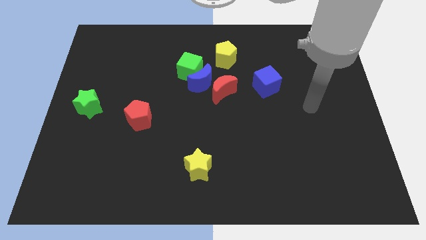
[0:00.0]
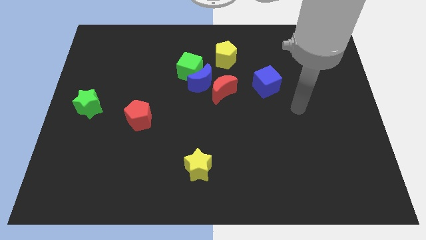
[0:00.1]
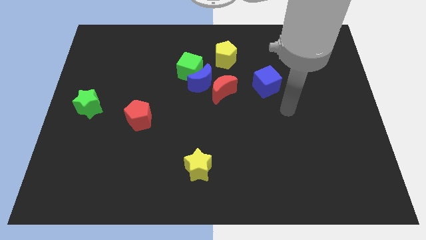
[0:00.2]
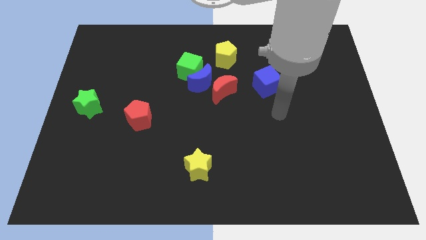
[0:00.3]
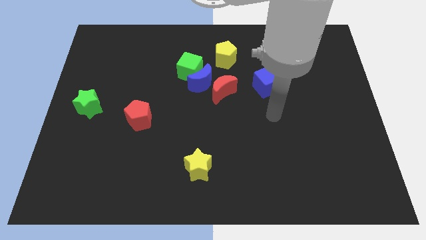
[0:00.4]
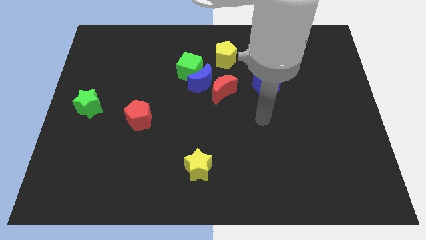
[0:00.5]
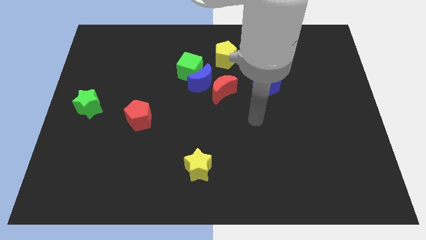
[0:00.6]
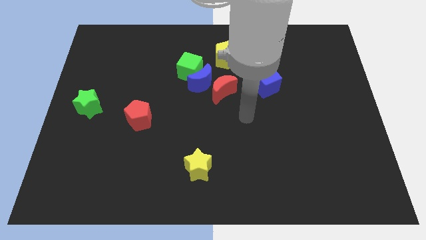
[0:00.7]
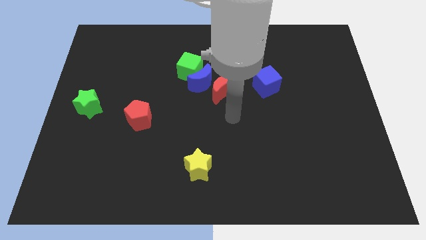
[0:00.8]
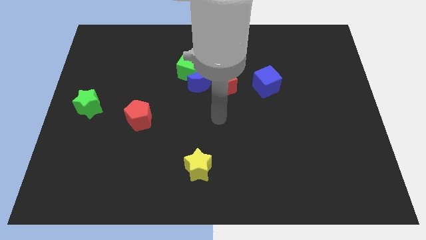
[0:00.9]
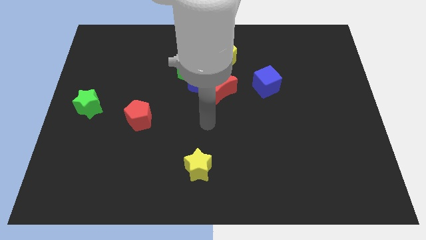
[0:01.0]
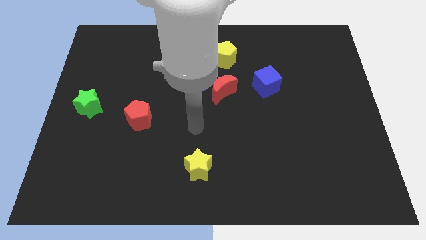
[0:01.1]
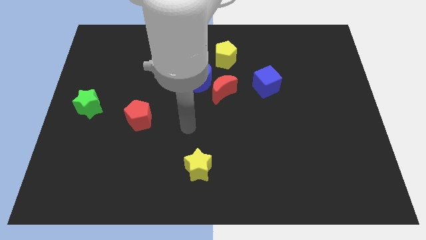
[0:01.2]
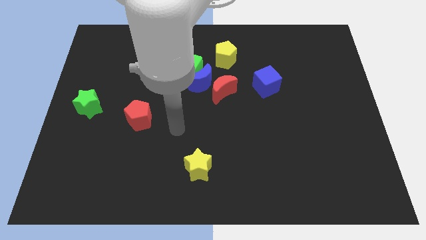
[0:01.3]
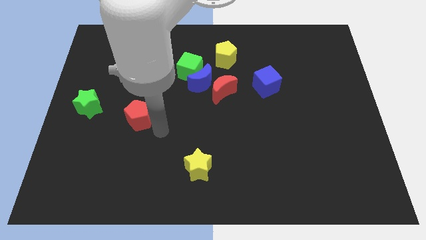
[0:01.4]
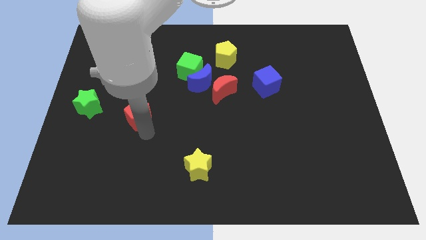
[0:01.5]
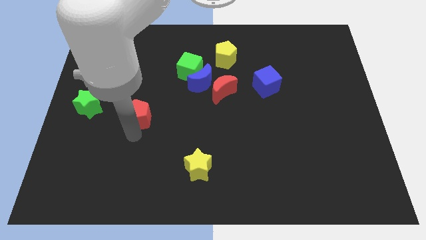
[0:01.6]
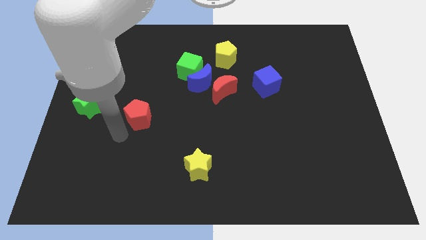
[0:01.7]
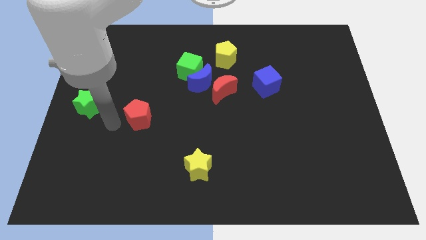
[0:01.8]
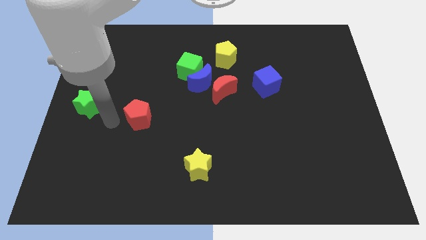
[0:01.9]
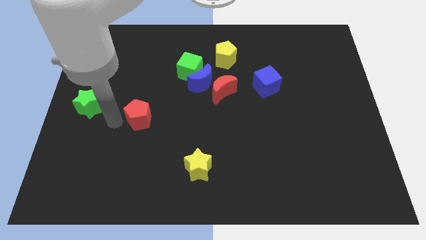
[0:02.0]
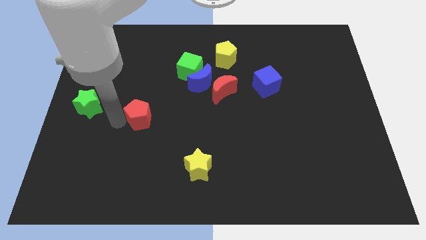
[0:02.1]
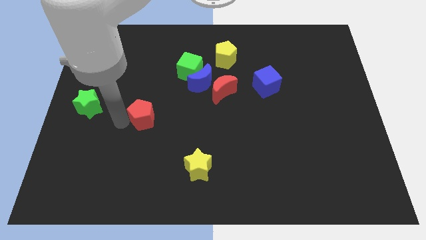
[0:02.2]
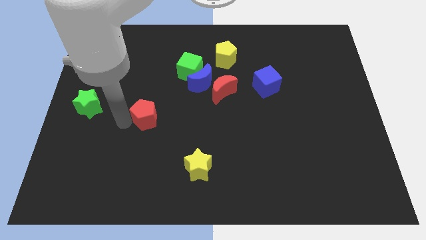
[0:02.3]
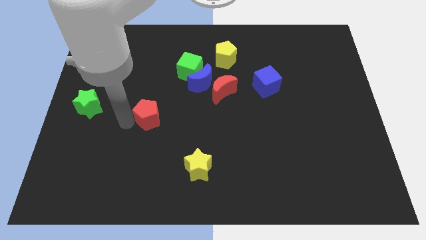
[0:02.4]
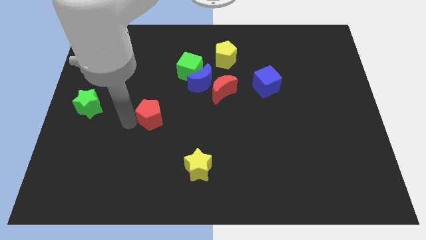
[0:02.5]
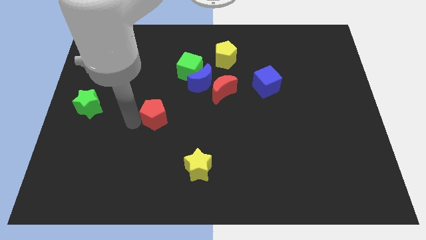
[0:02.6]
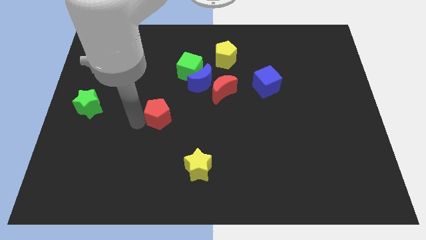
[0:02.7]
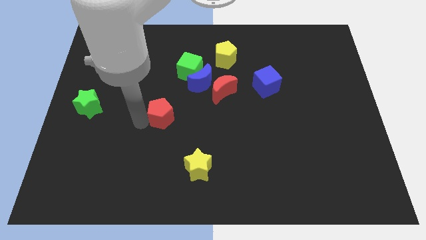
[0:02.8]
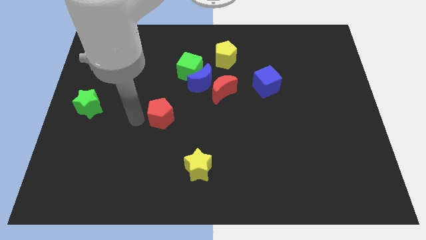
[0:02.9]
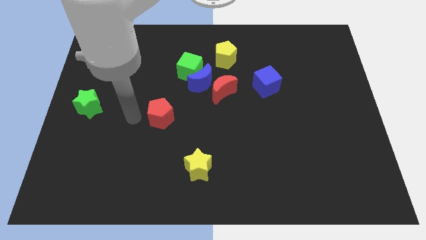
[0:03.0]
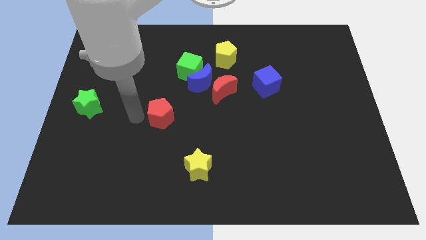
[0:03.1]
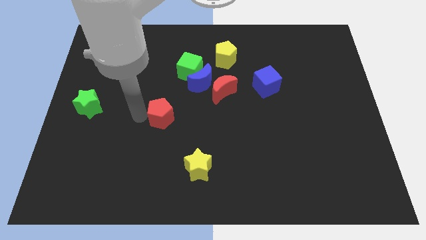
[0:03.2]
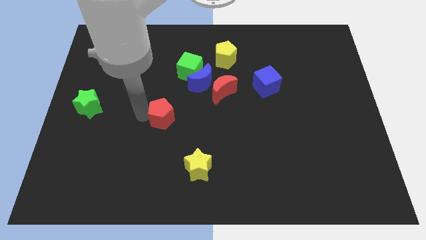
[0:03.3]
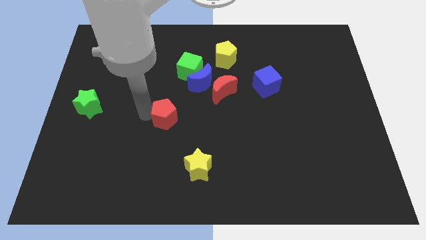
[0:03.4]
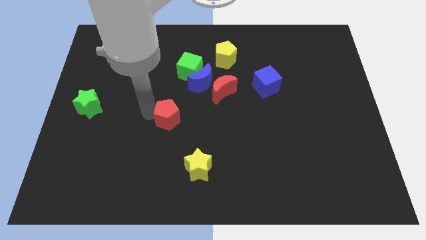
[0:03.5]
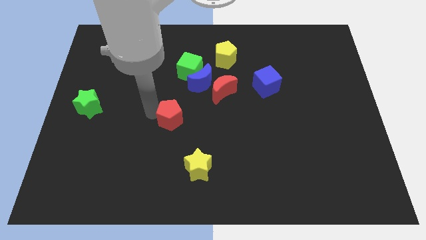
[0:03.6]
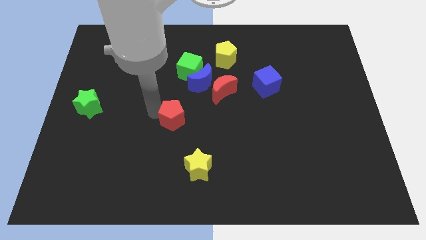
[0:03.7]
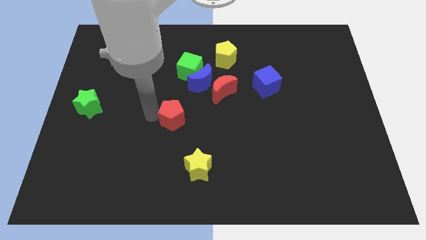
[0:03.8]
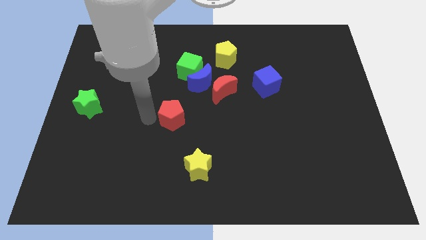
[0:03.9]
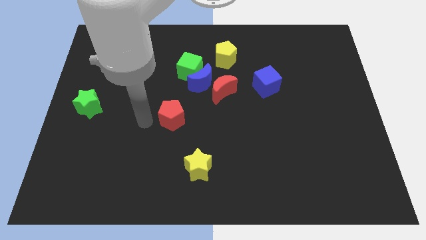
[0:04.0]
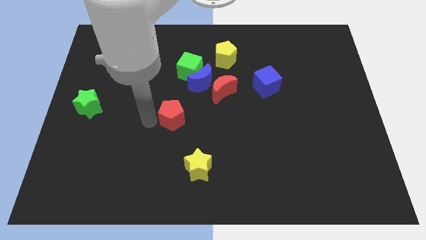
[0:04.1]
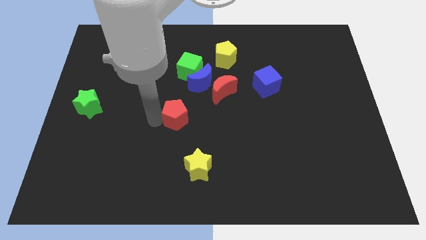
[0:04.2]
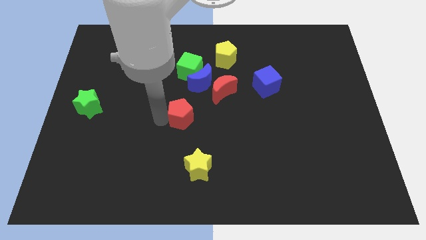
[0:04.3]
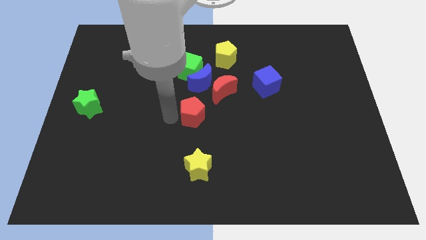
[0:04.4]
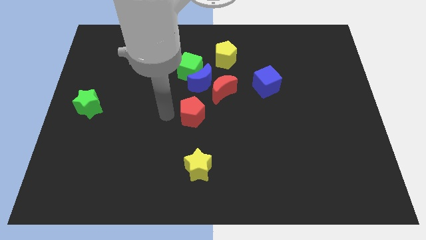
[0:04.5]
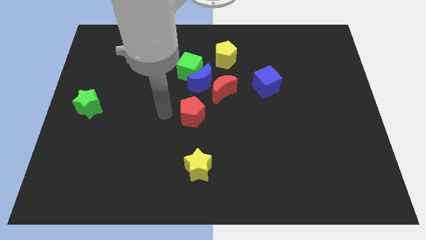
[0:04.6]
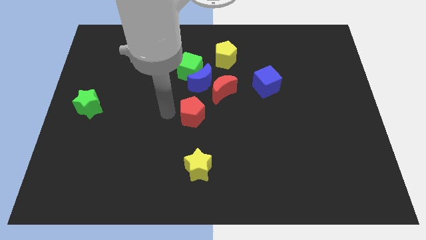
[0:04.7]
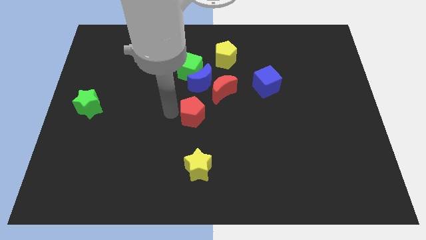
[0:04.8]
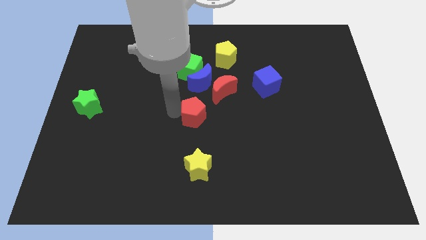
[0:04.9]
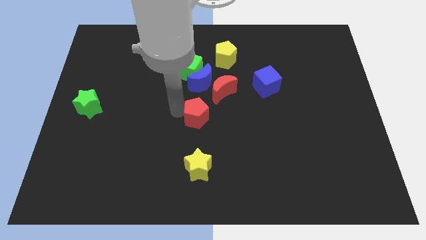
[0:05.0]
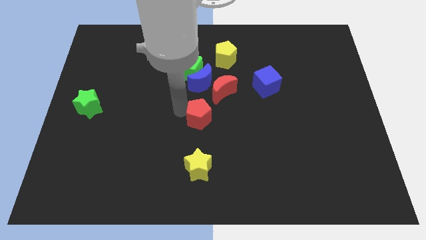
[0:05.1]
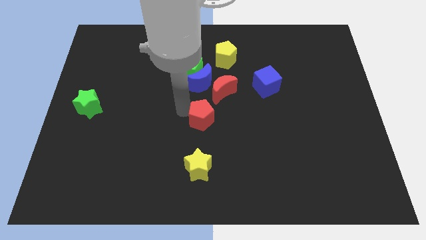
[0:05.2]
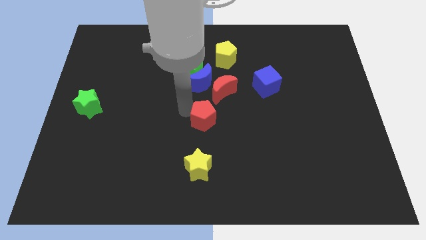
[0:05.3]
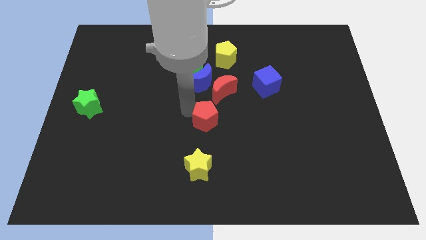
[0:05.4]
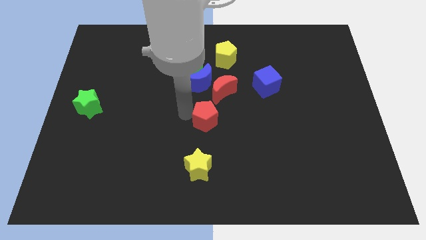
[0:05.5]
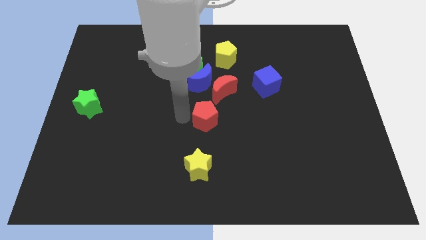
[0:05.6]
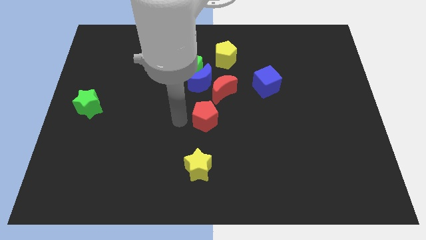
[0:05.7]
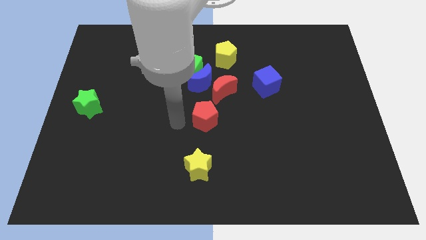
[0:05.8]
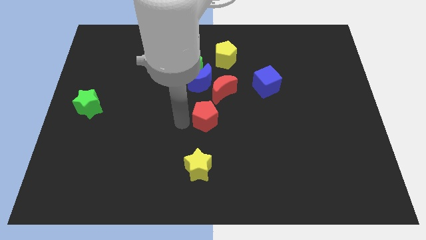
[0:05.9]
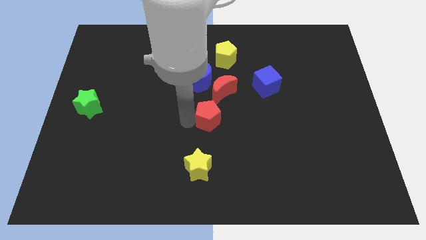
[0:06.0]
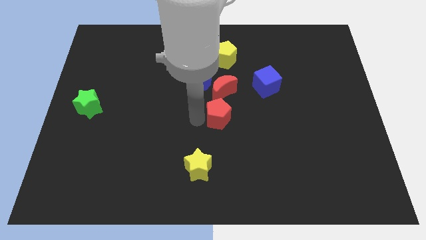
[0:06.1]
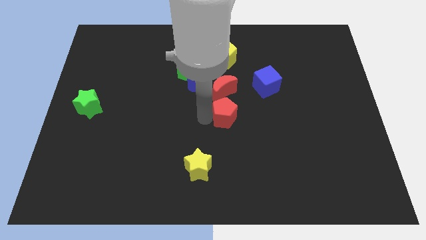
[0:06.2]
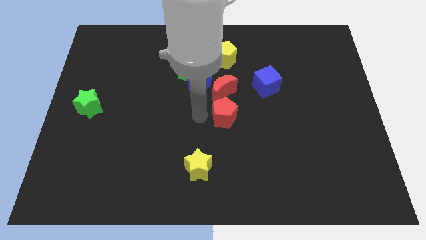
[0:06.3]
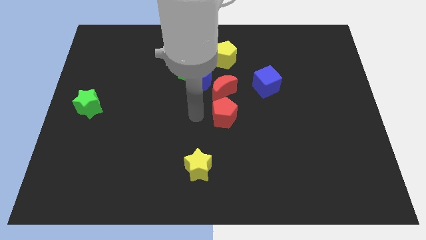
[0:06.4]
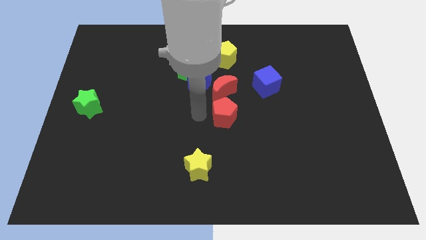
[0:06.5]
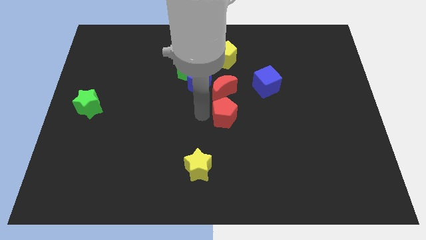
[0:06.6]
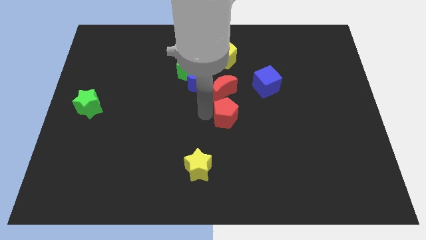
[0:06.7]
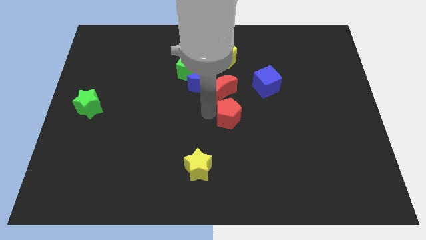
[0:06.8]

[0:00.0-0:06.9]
push the red pentagon right

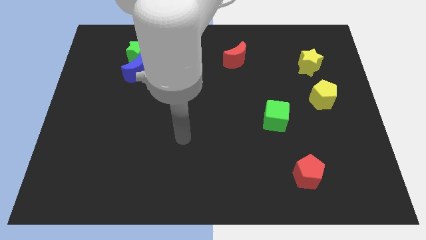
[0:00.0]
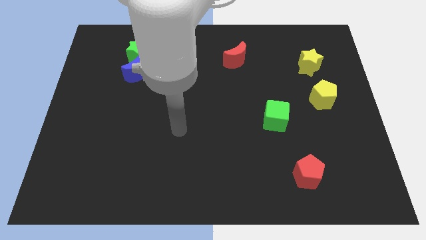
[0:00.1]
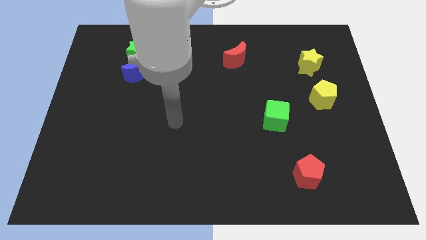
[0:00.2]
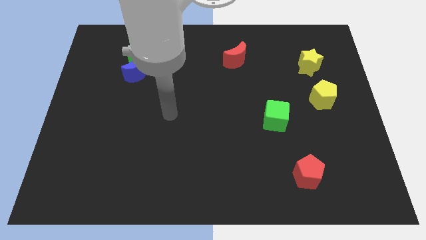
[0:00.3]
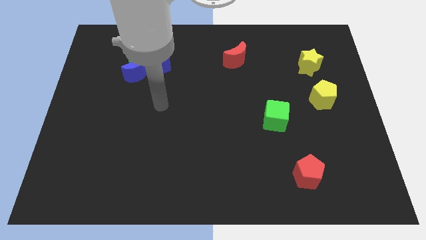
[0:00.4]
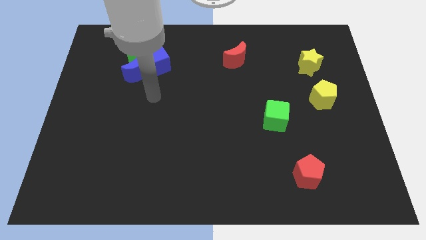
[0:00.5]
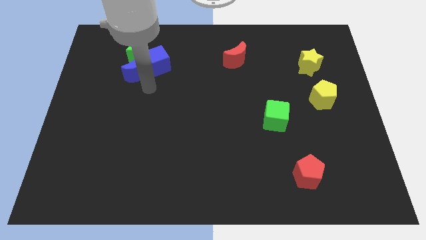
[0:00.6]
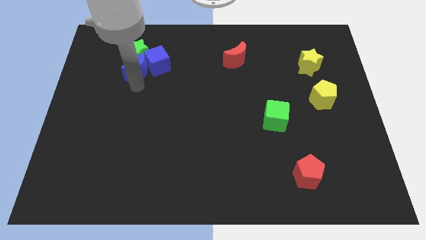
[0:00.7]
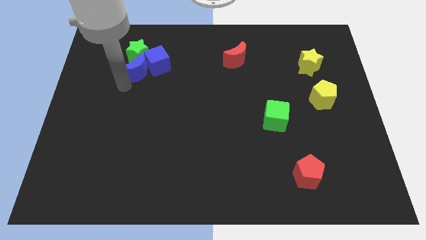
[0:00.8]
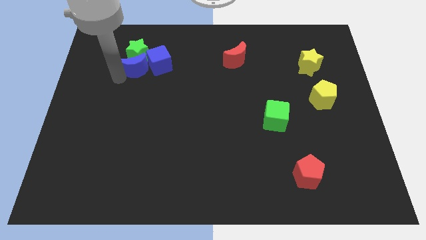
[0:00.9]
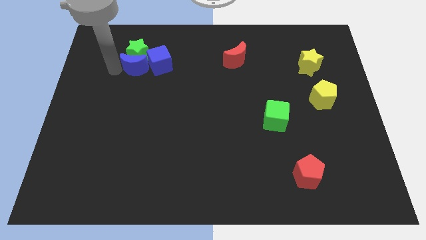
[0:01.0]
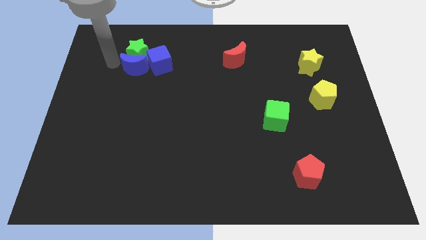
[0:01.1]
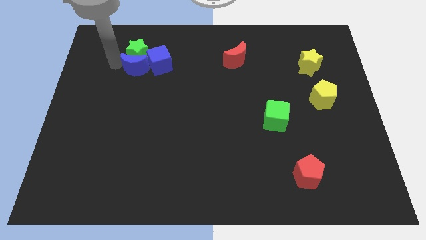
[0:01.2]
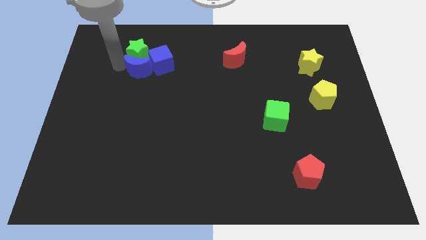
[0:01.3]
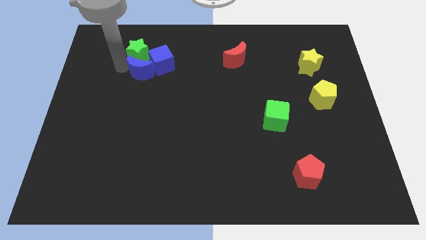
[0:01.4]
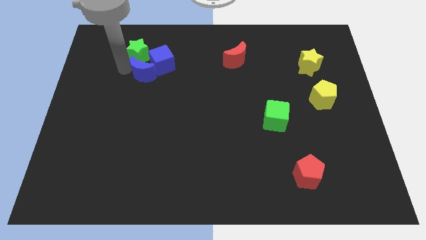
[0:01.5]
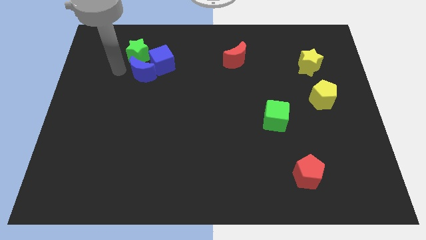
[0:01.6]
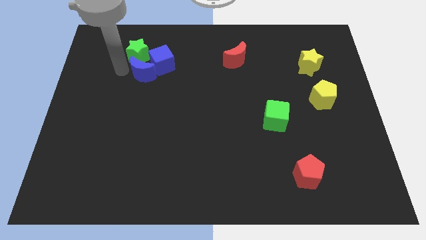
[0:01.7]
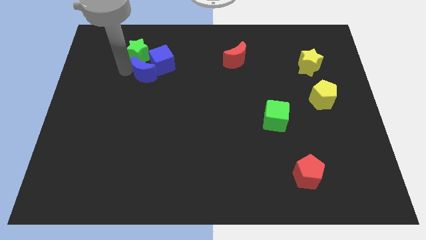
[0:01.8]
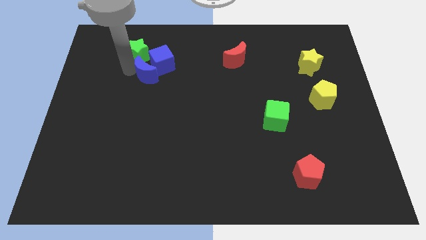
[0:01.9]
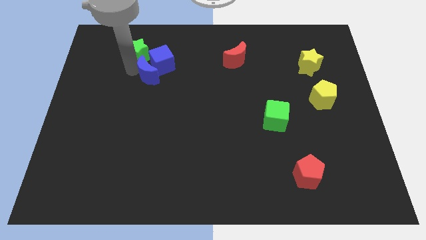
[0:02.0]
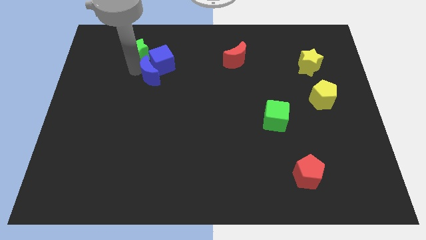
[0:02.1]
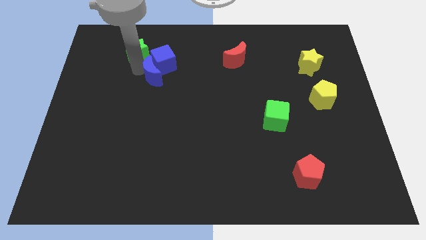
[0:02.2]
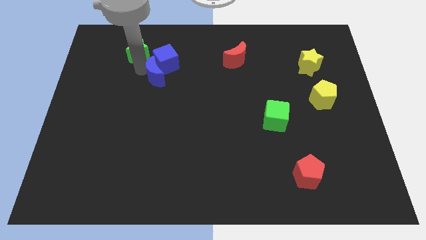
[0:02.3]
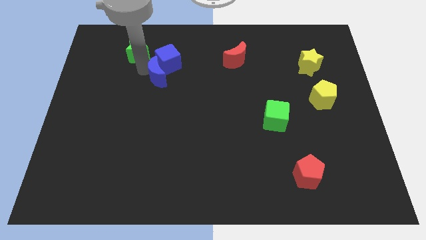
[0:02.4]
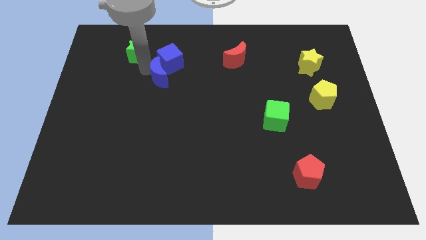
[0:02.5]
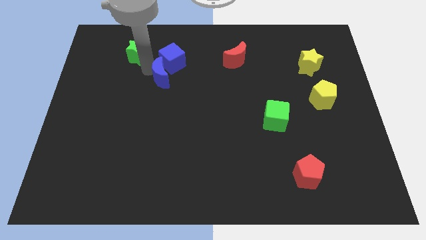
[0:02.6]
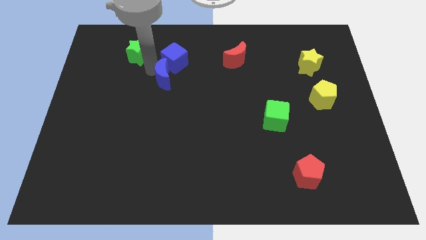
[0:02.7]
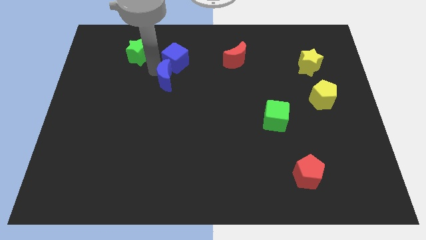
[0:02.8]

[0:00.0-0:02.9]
move the blue moon right slightly
